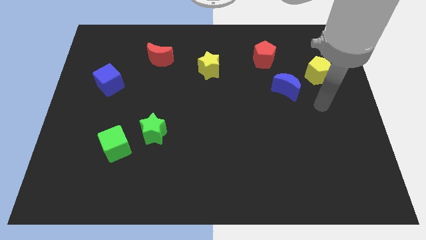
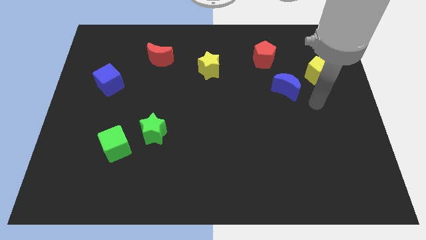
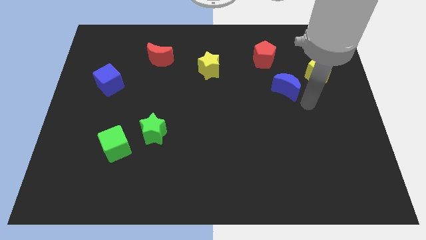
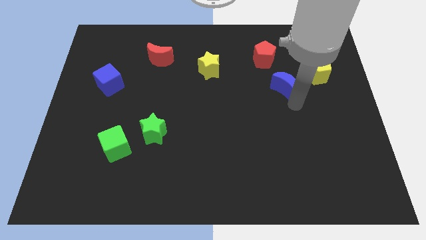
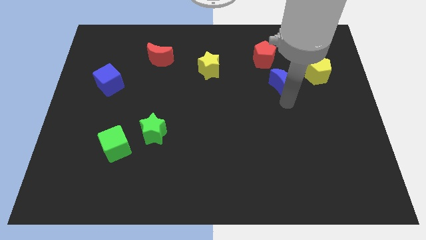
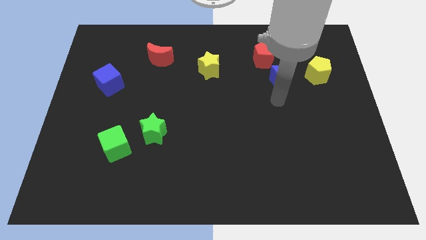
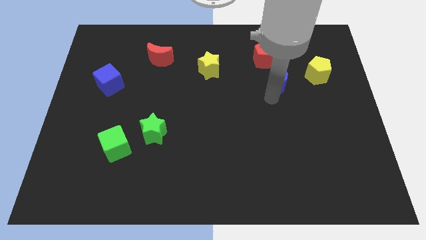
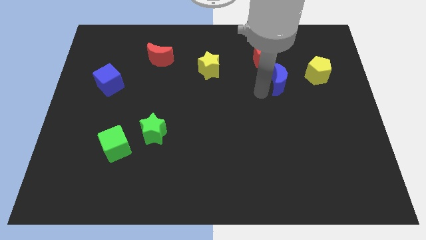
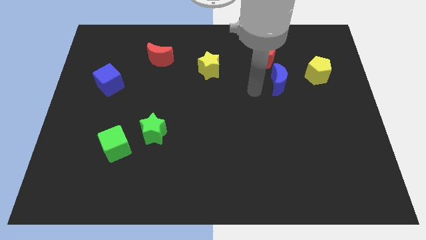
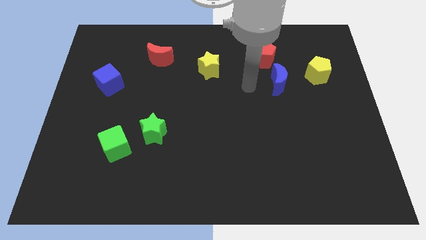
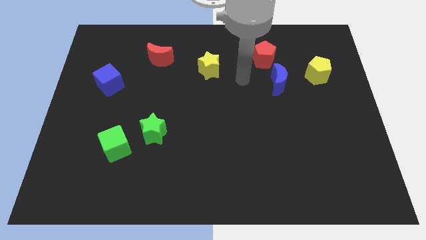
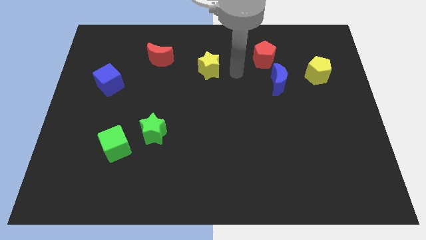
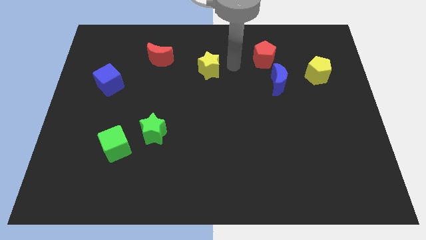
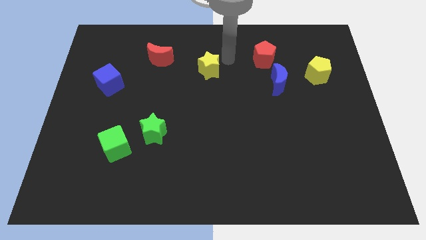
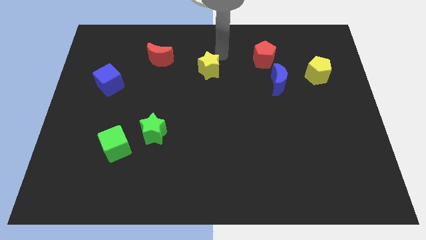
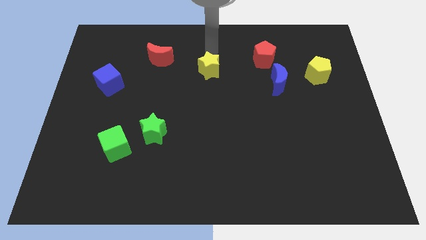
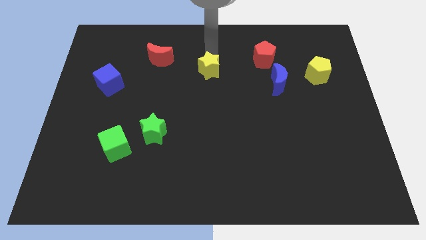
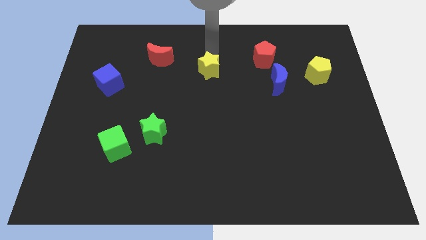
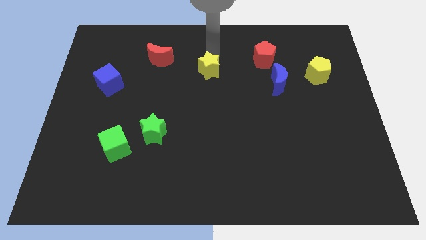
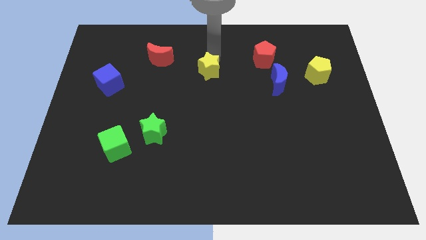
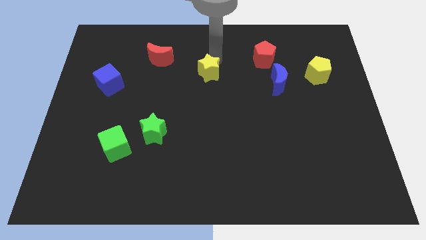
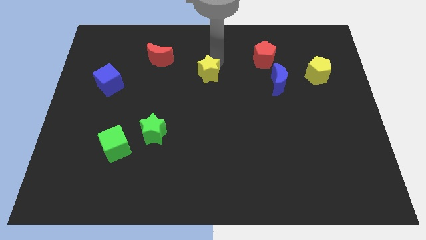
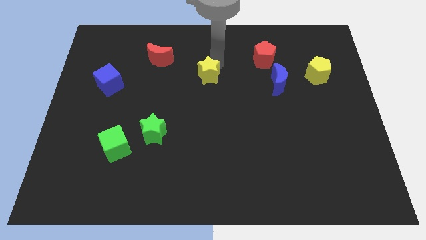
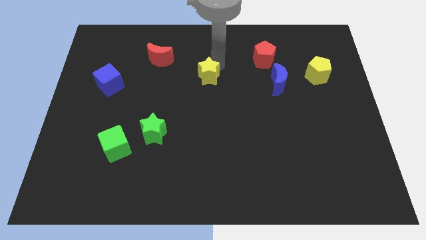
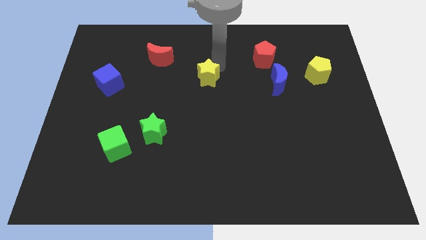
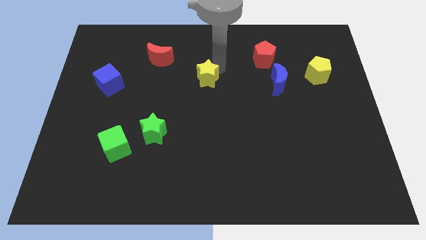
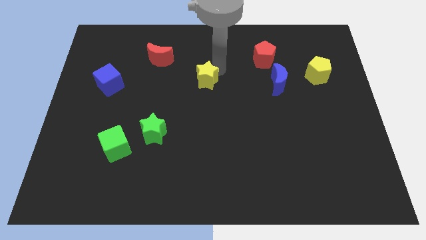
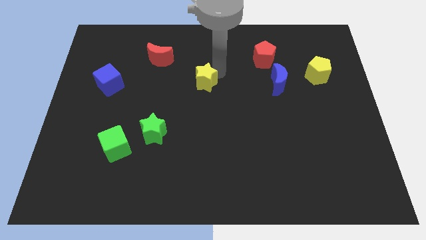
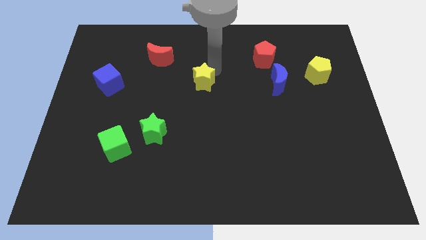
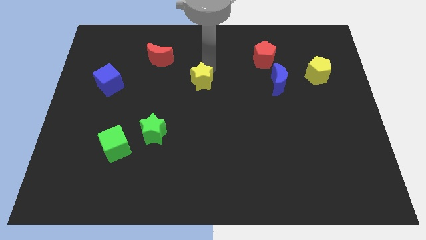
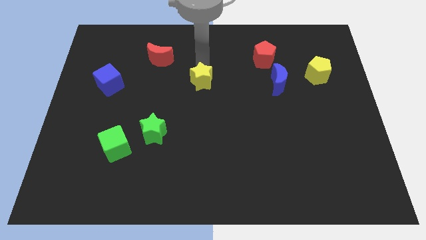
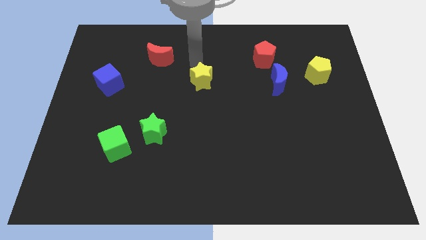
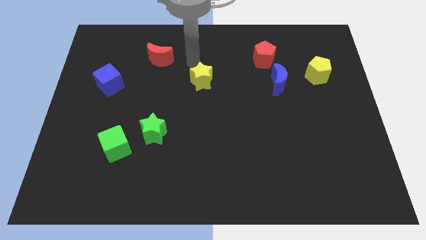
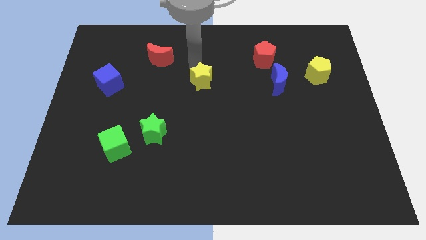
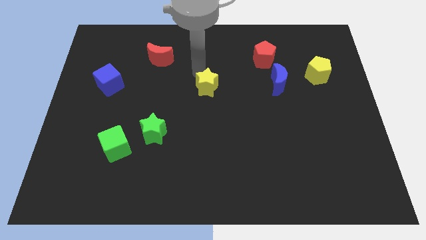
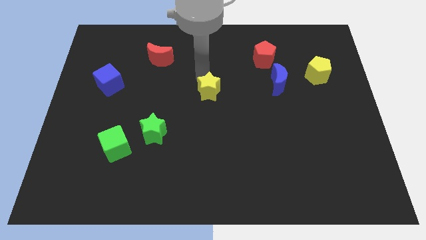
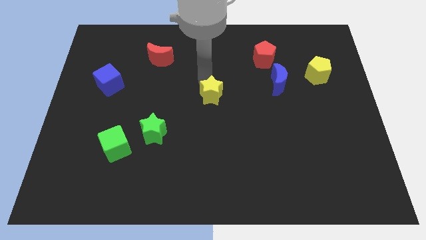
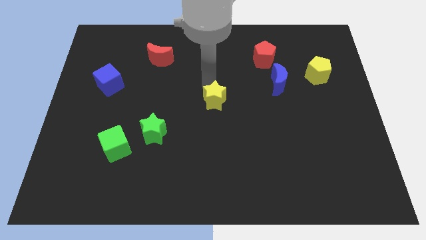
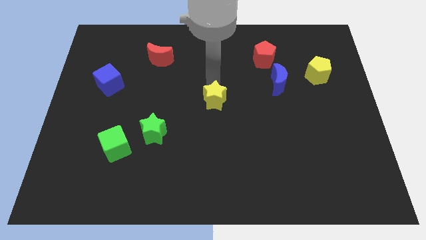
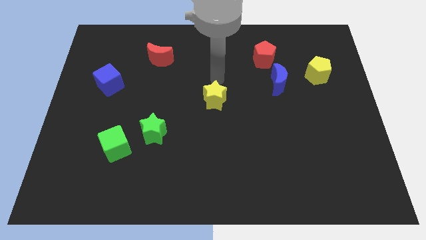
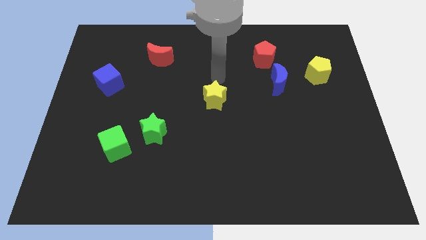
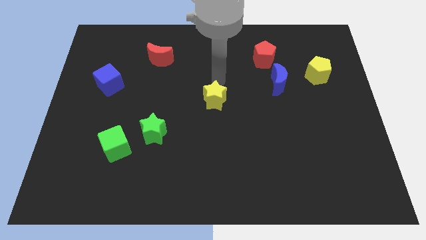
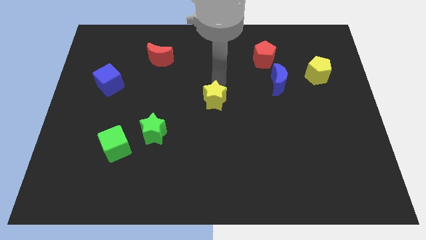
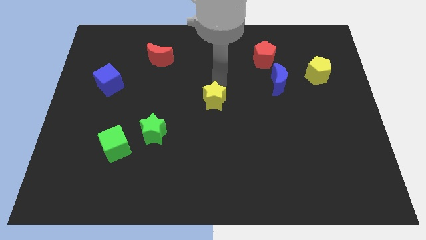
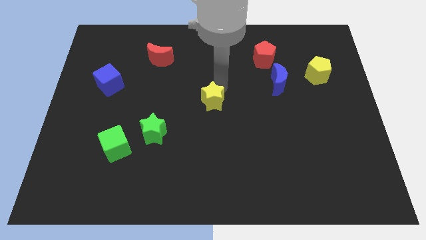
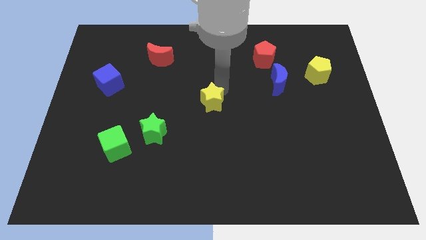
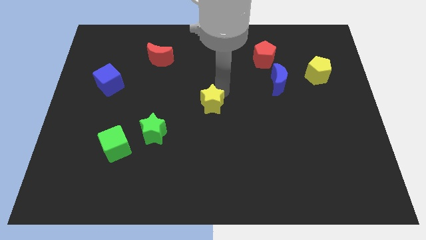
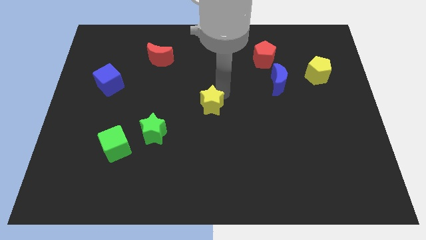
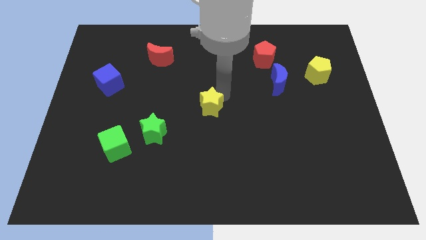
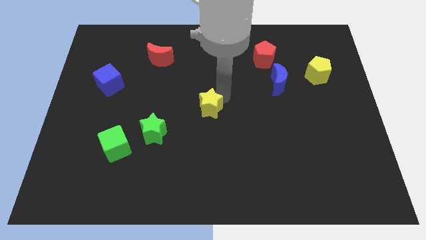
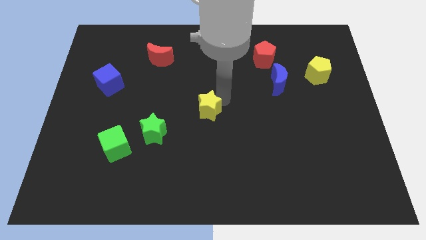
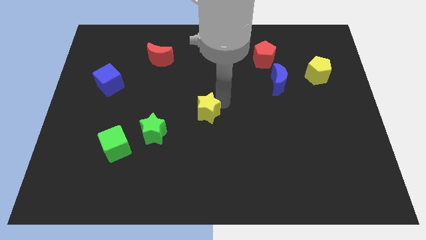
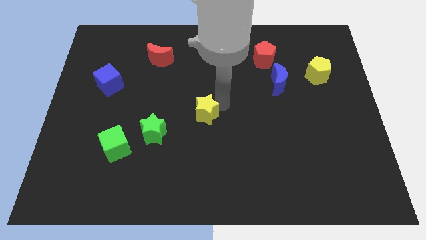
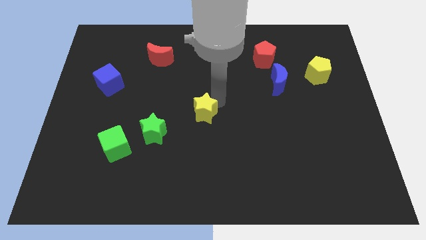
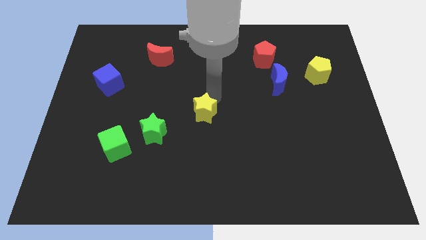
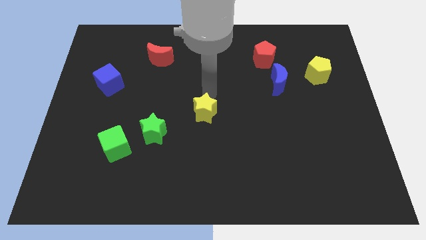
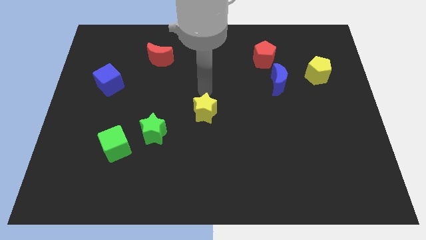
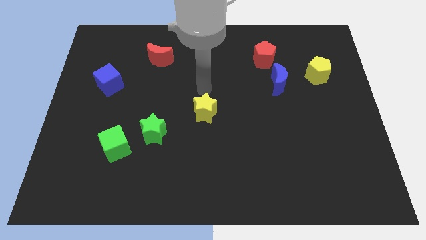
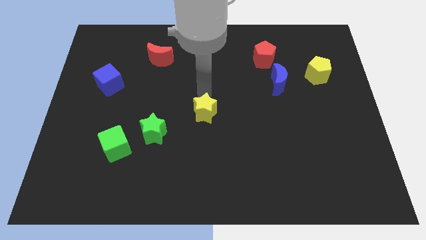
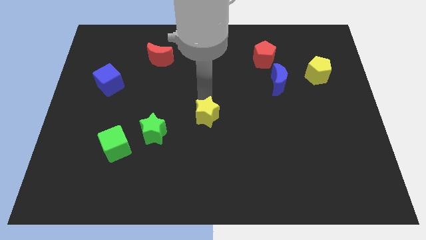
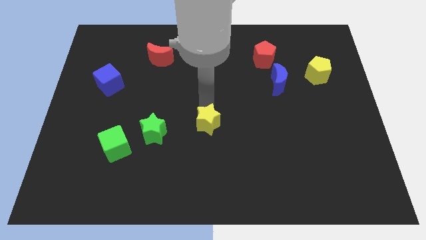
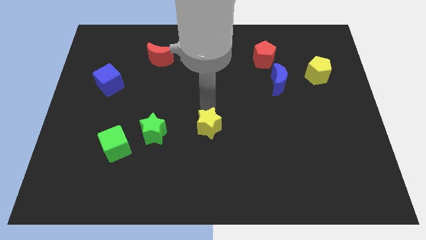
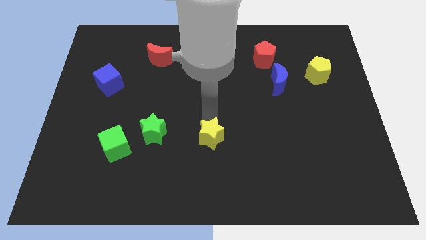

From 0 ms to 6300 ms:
slide the yellow star downwards

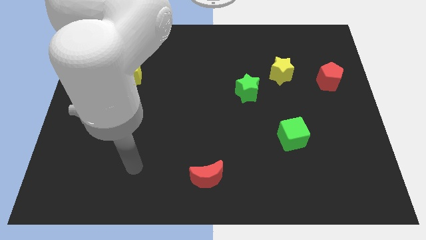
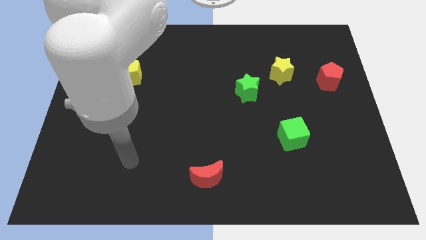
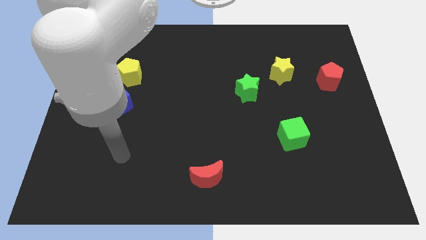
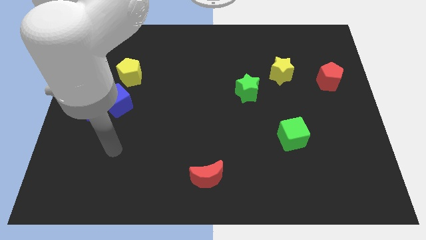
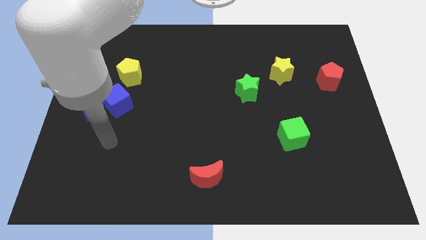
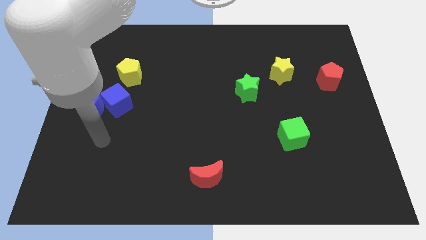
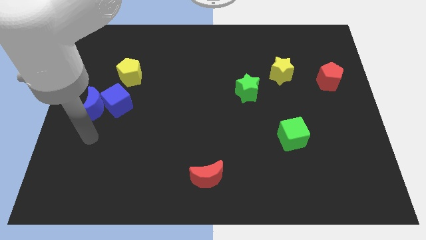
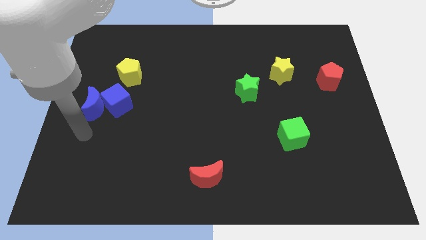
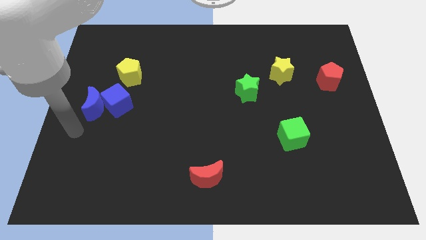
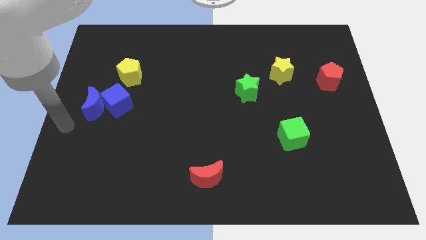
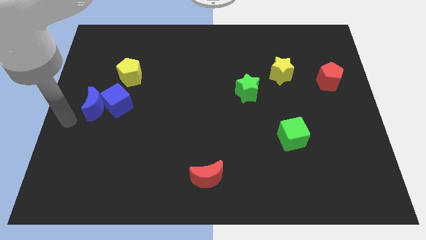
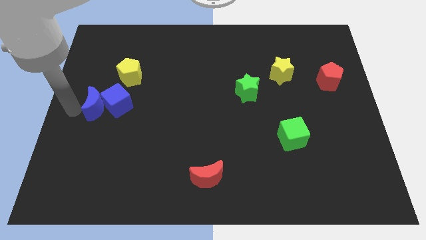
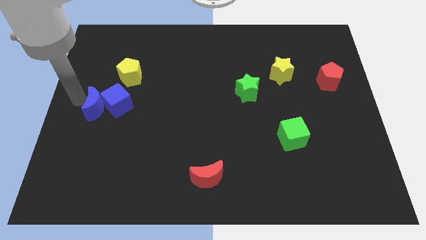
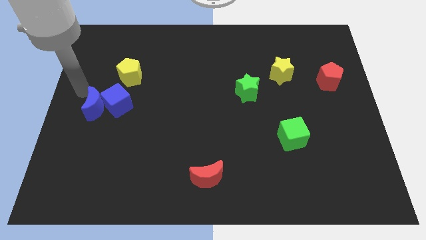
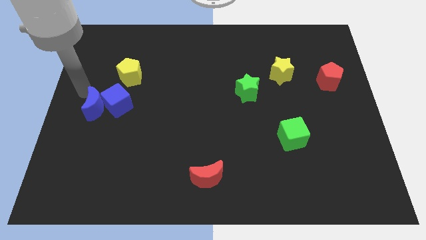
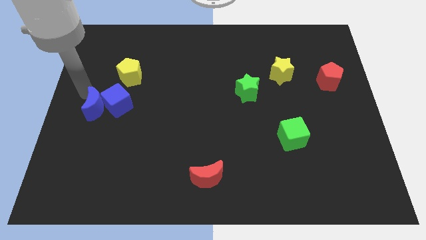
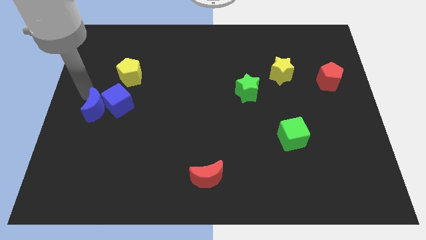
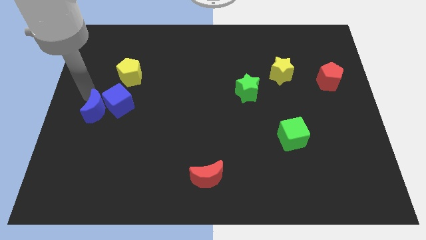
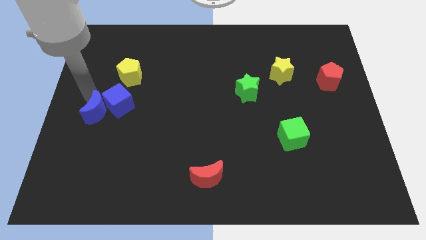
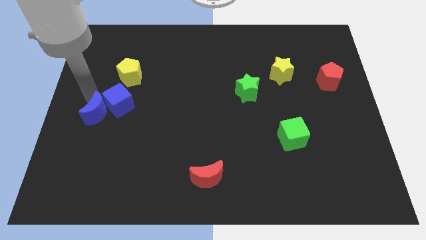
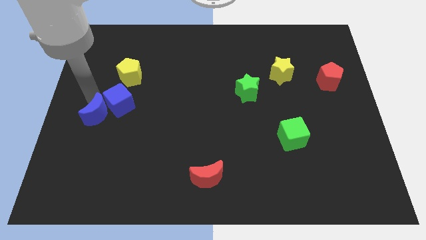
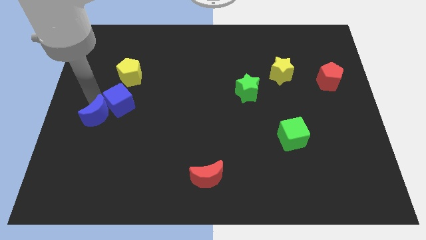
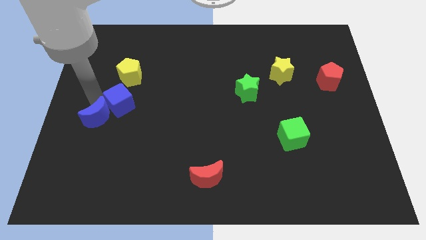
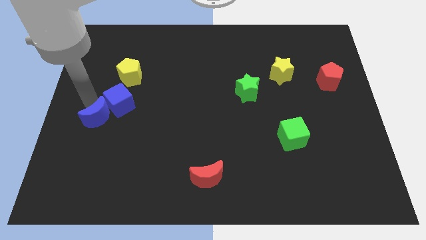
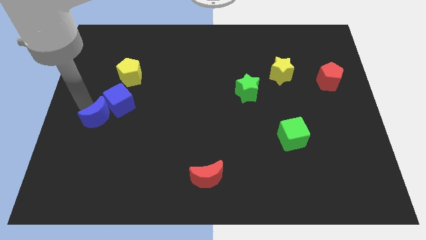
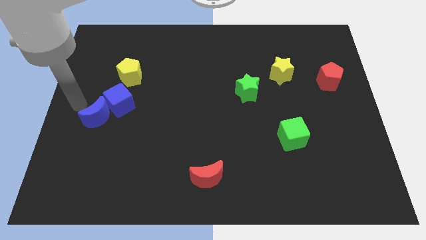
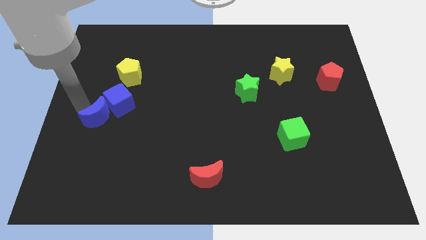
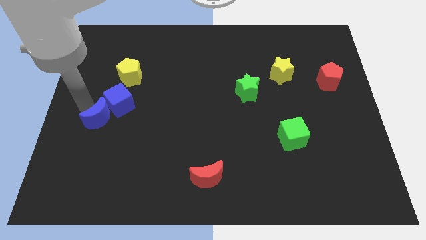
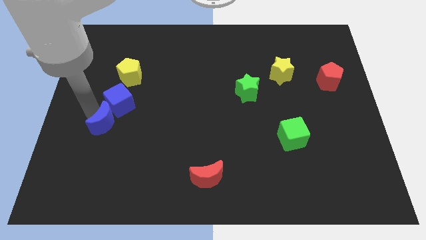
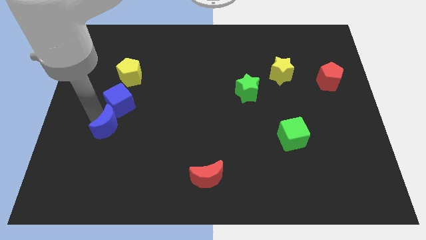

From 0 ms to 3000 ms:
slightly push the blue moon down and then right
